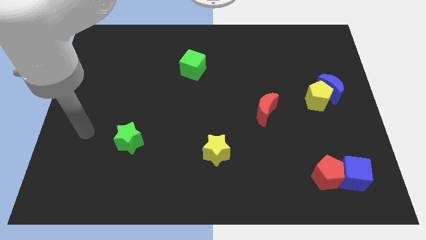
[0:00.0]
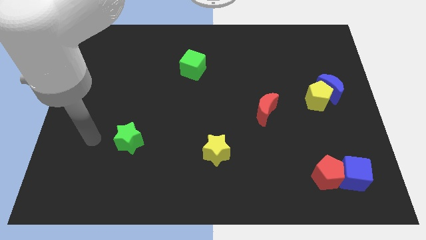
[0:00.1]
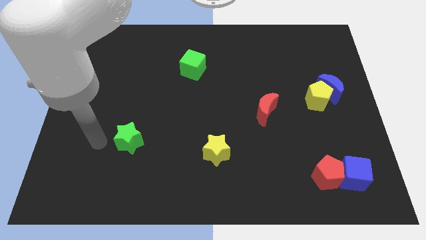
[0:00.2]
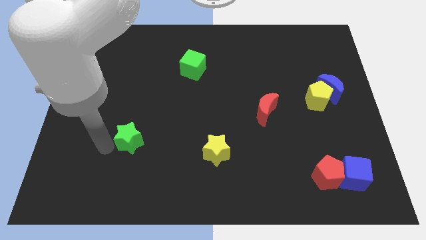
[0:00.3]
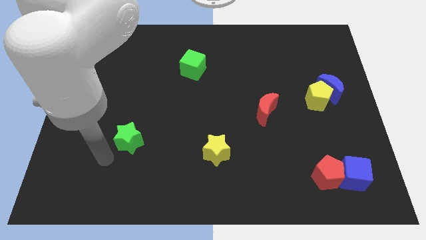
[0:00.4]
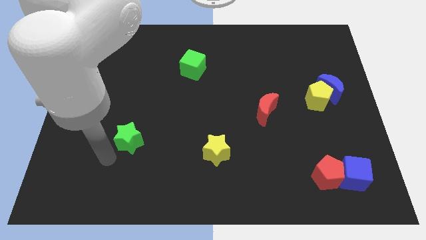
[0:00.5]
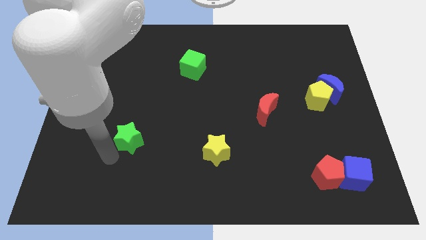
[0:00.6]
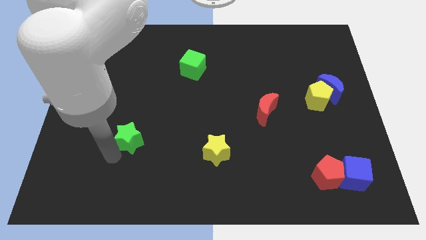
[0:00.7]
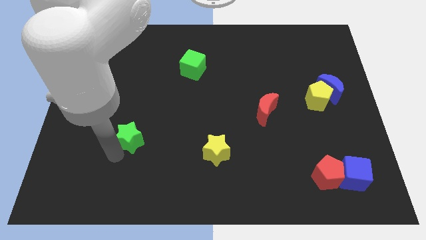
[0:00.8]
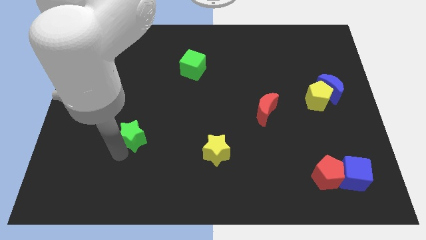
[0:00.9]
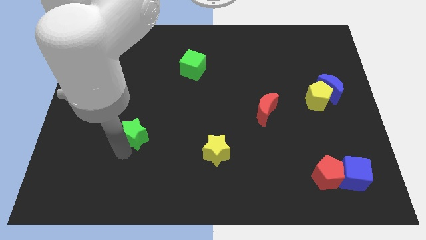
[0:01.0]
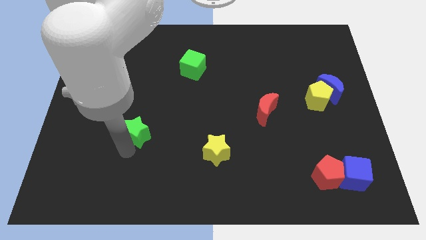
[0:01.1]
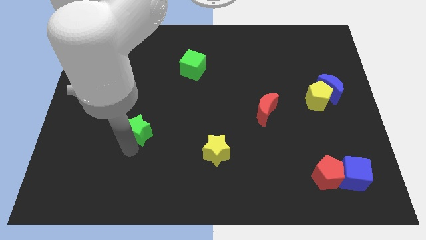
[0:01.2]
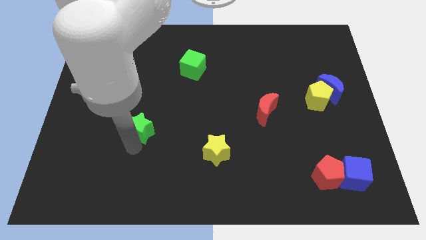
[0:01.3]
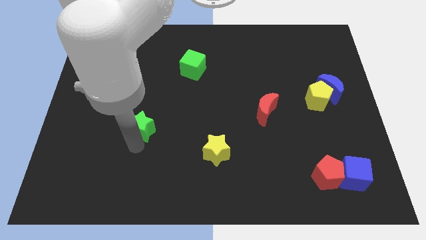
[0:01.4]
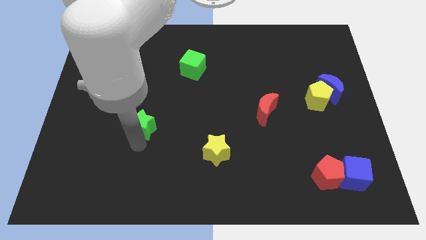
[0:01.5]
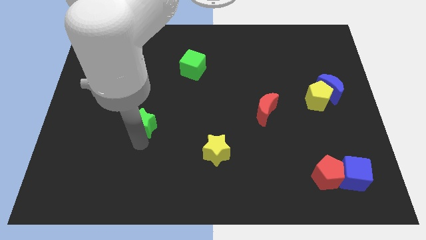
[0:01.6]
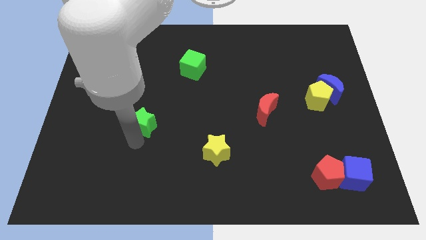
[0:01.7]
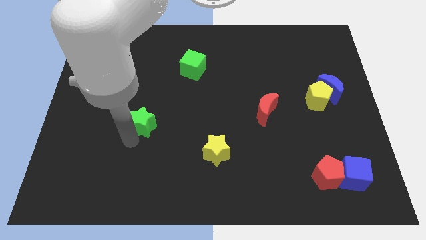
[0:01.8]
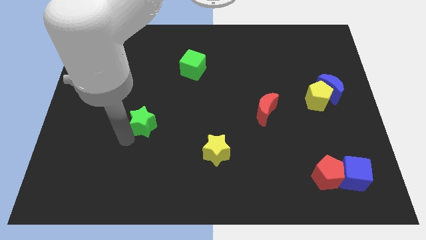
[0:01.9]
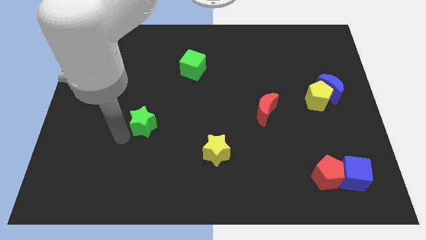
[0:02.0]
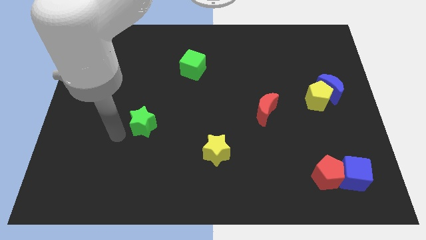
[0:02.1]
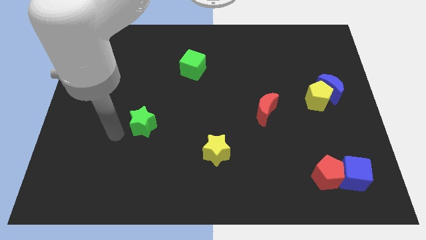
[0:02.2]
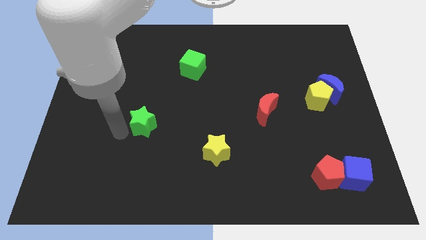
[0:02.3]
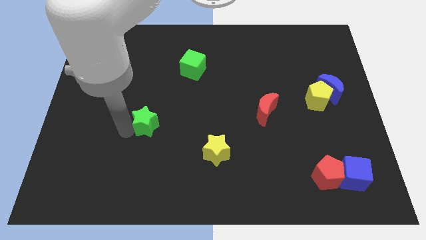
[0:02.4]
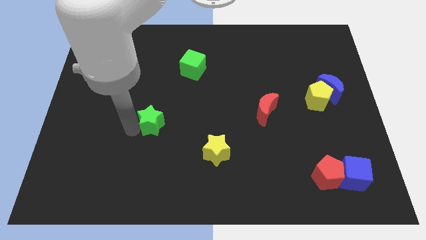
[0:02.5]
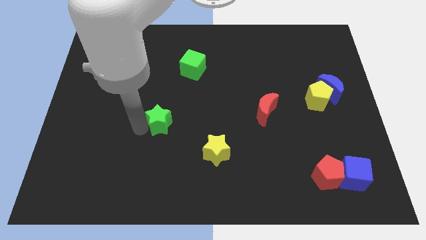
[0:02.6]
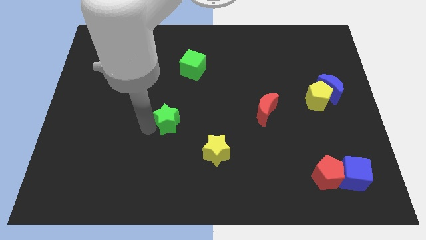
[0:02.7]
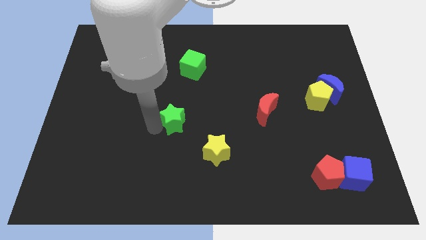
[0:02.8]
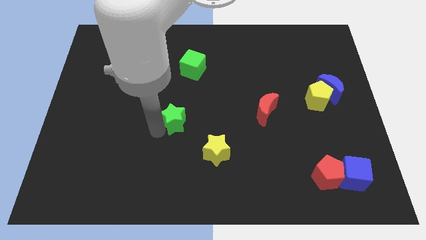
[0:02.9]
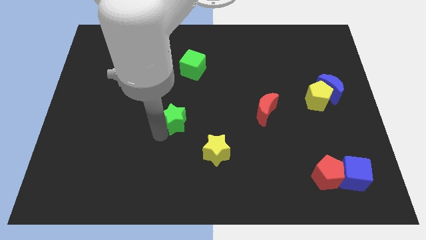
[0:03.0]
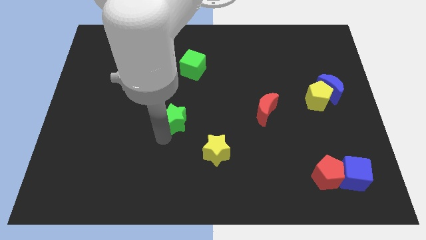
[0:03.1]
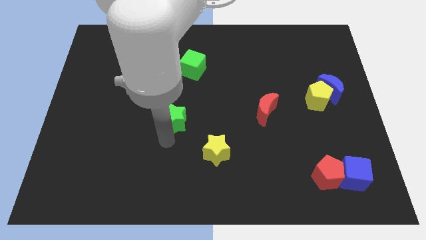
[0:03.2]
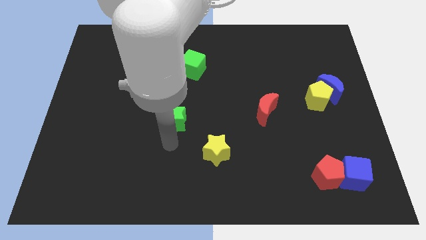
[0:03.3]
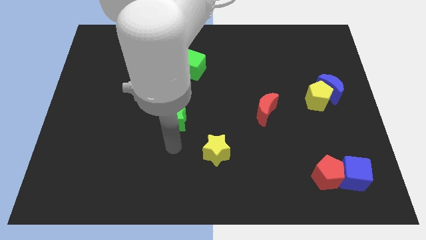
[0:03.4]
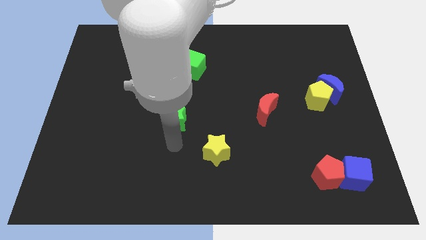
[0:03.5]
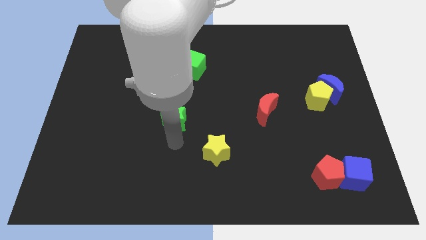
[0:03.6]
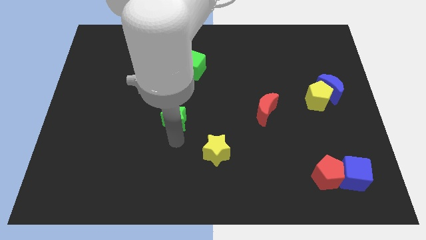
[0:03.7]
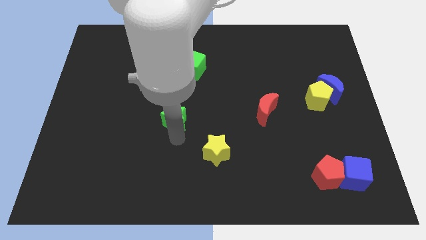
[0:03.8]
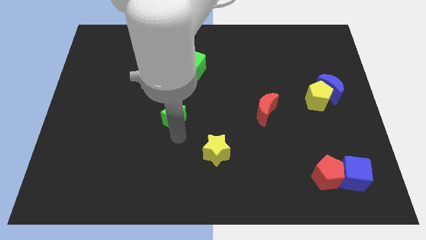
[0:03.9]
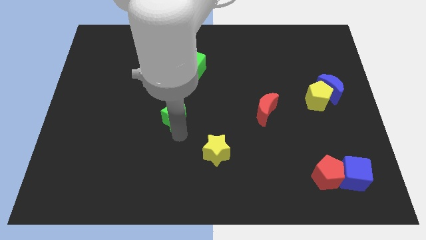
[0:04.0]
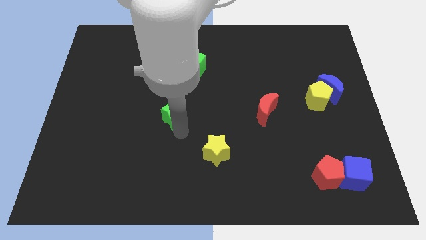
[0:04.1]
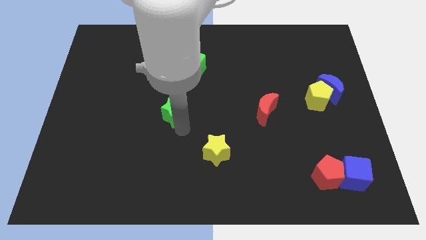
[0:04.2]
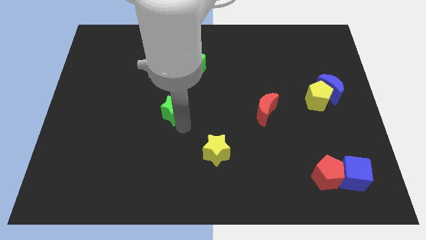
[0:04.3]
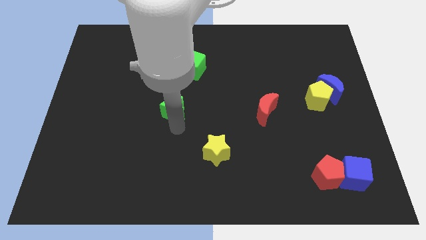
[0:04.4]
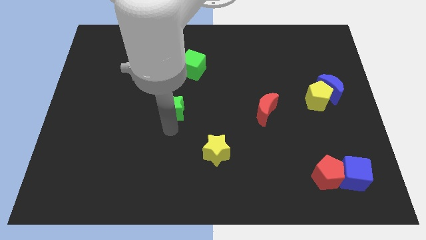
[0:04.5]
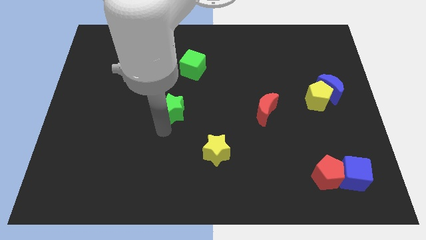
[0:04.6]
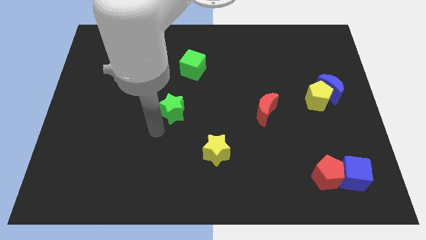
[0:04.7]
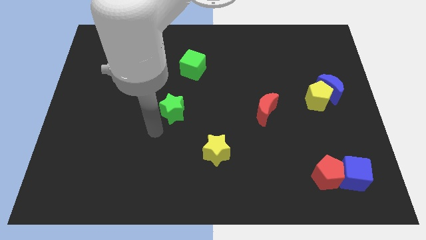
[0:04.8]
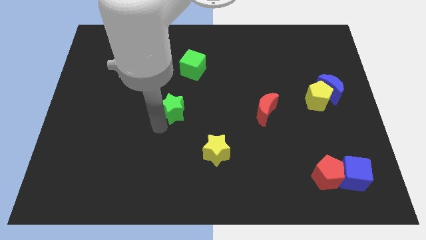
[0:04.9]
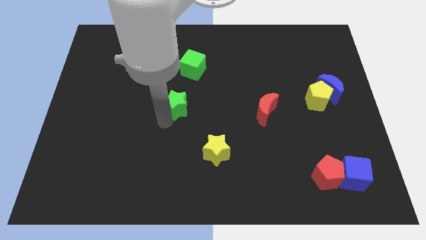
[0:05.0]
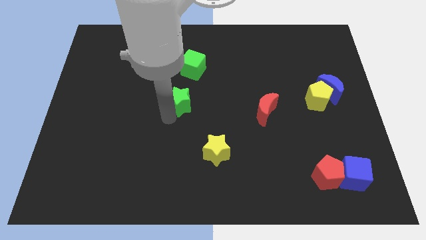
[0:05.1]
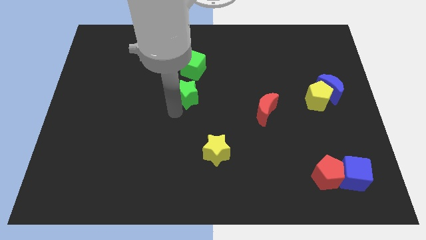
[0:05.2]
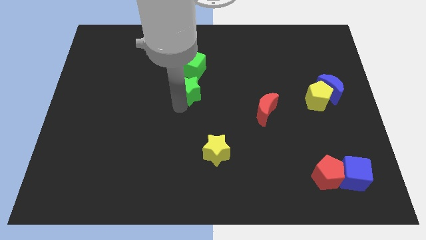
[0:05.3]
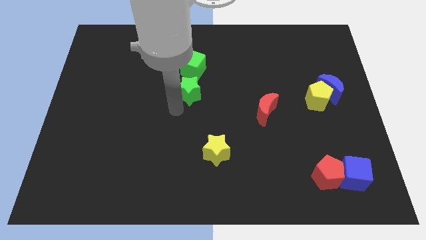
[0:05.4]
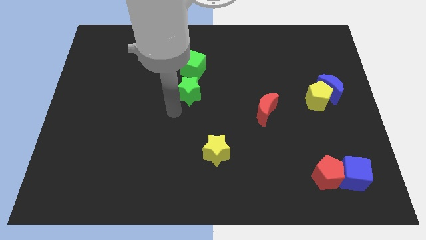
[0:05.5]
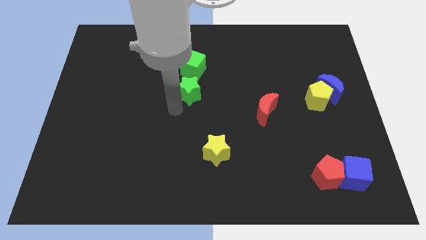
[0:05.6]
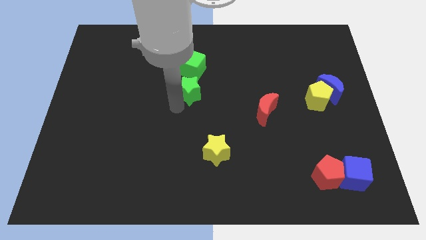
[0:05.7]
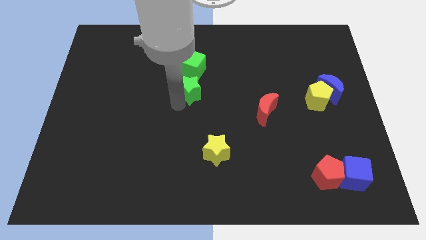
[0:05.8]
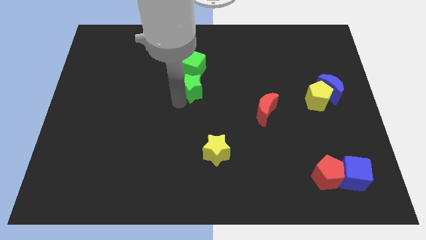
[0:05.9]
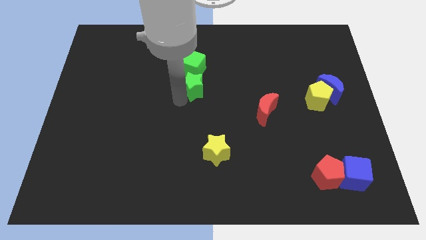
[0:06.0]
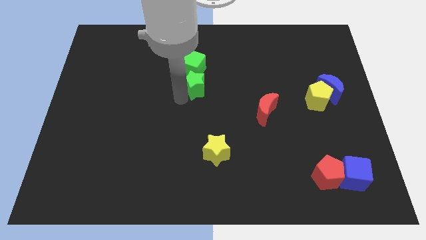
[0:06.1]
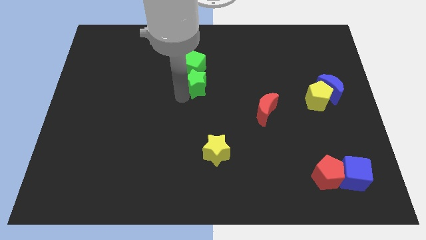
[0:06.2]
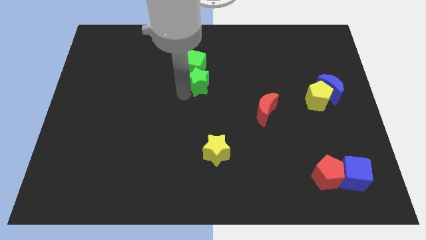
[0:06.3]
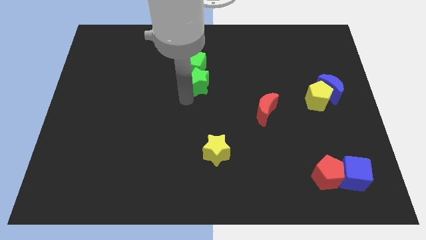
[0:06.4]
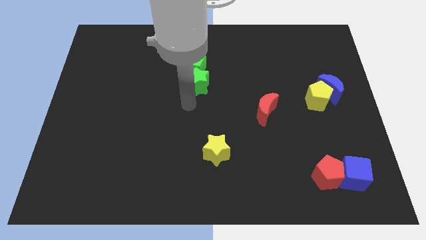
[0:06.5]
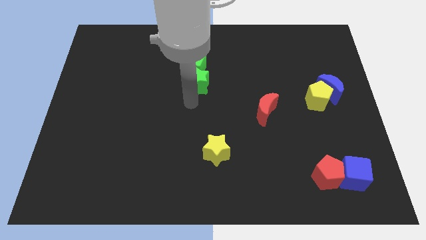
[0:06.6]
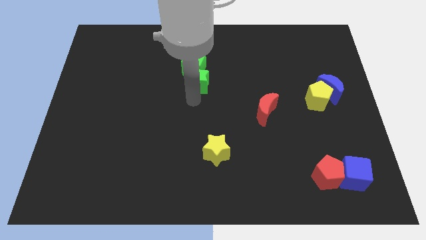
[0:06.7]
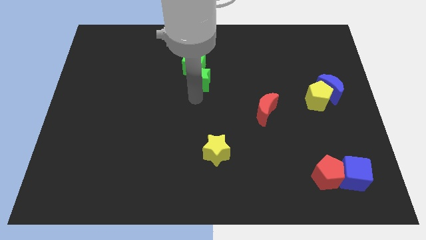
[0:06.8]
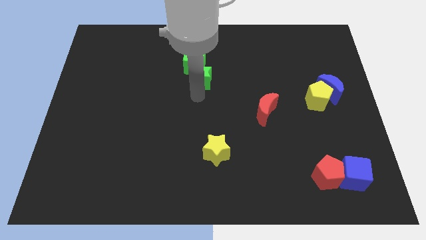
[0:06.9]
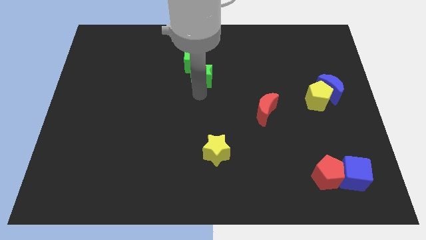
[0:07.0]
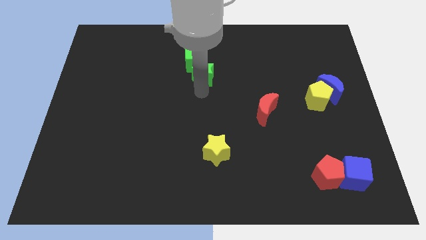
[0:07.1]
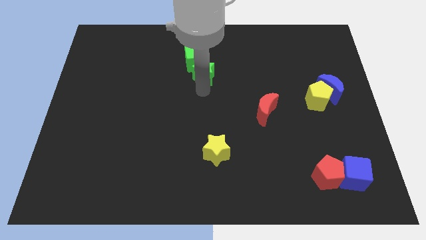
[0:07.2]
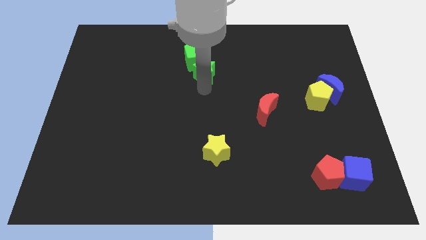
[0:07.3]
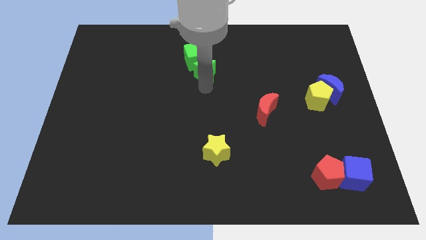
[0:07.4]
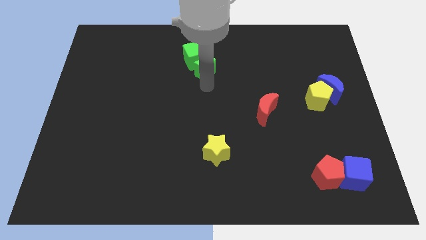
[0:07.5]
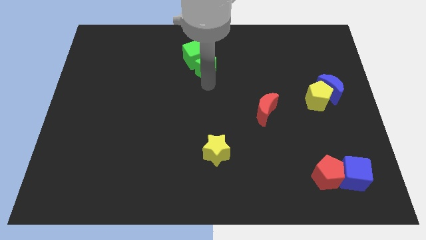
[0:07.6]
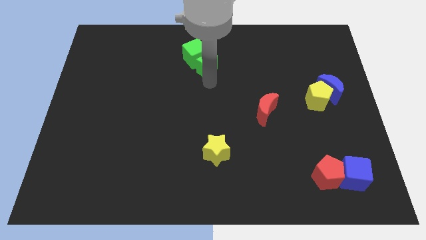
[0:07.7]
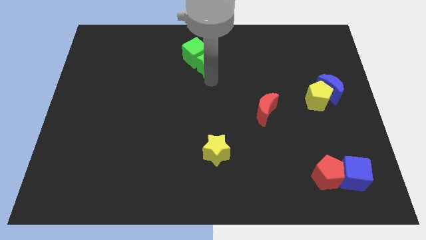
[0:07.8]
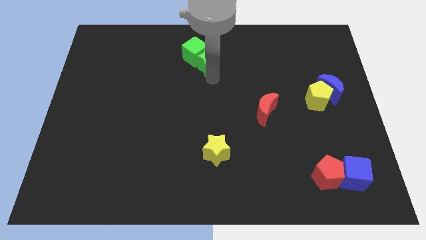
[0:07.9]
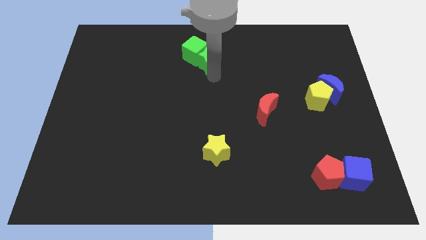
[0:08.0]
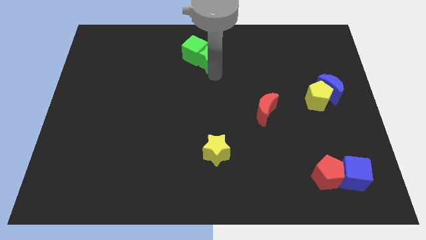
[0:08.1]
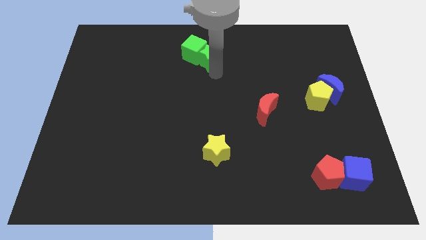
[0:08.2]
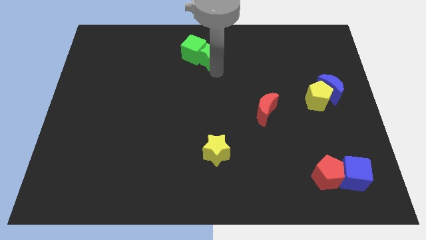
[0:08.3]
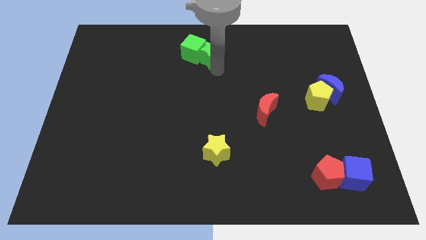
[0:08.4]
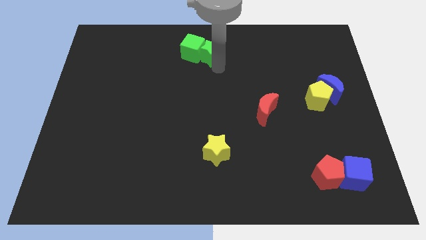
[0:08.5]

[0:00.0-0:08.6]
move the green star to the top side
